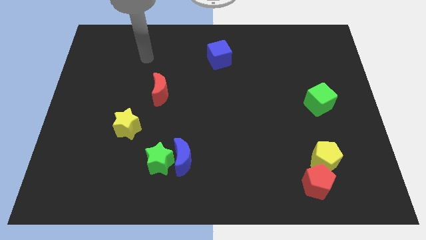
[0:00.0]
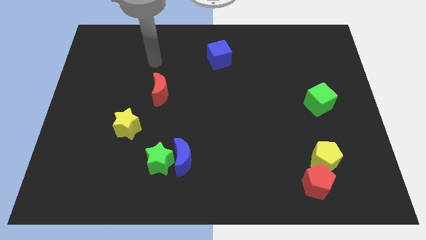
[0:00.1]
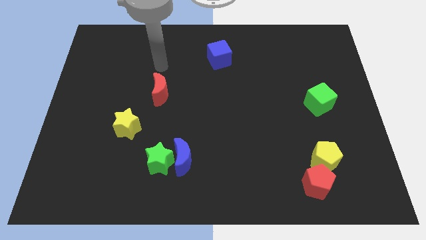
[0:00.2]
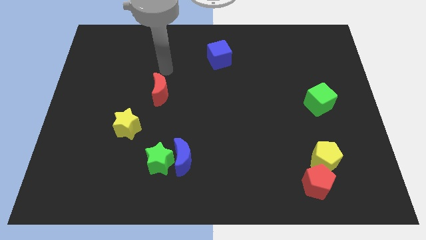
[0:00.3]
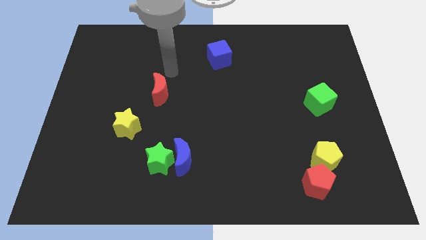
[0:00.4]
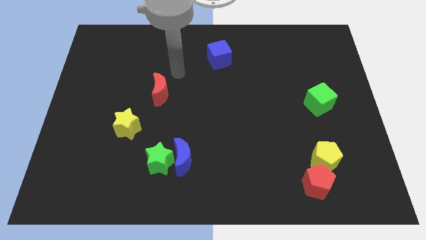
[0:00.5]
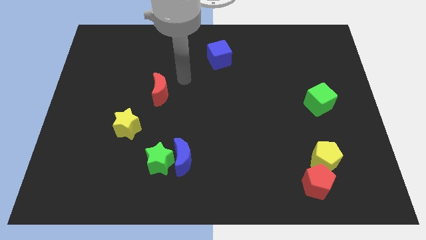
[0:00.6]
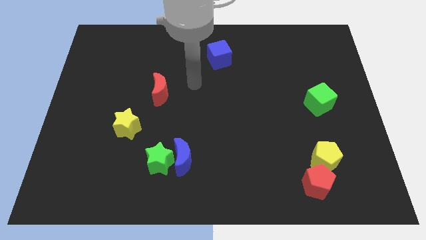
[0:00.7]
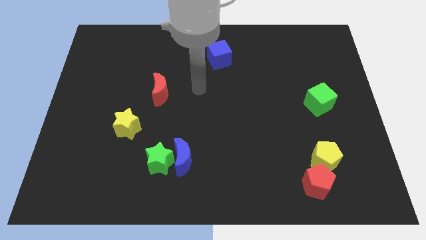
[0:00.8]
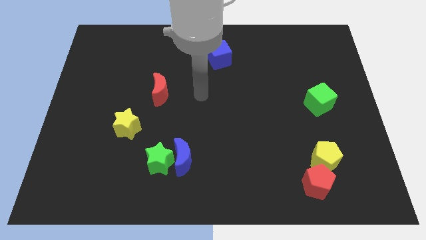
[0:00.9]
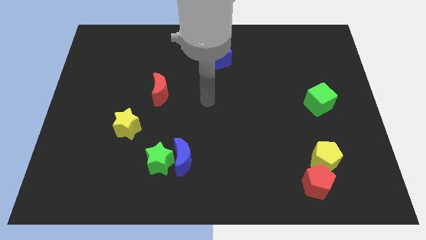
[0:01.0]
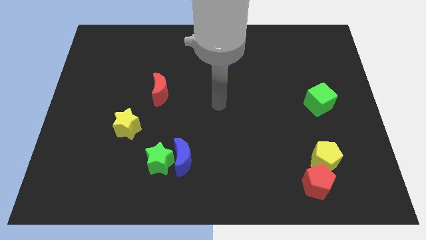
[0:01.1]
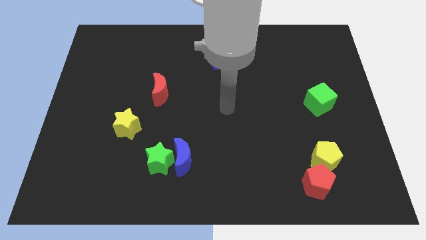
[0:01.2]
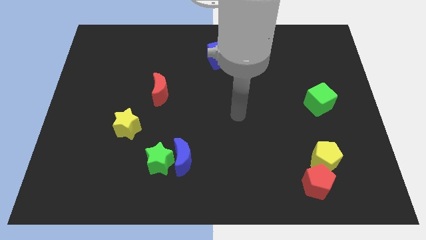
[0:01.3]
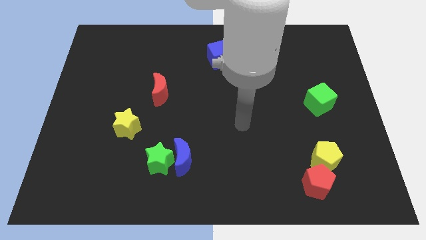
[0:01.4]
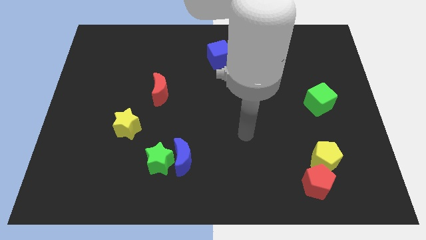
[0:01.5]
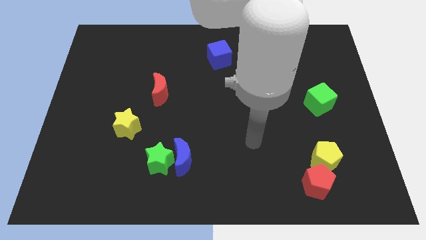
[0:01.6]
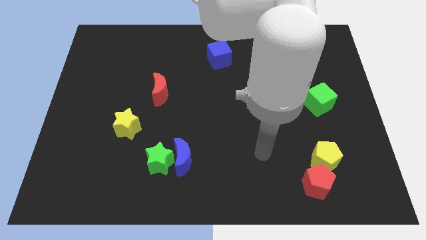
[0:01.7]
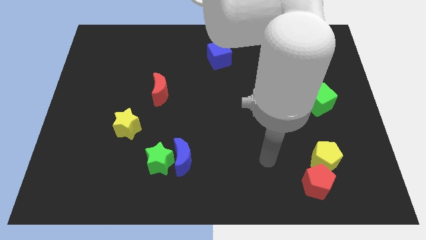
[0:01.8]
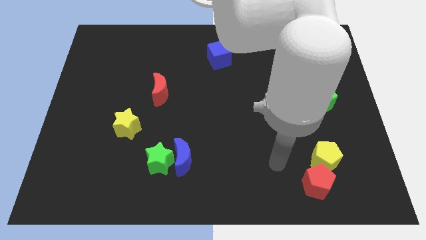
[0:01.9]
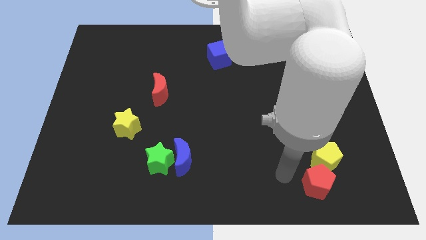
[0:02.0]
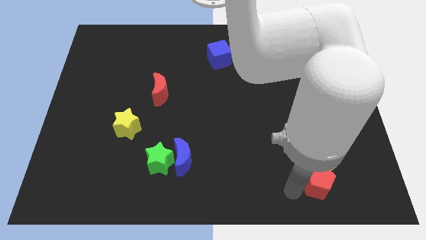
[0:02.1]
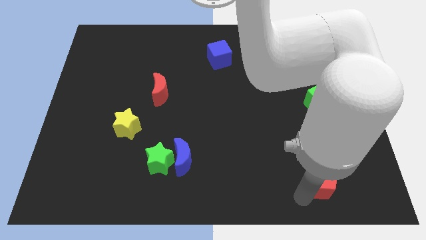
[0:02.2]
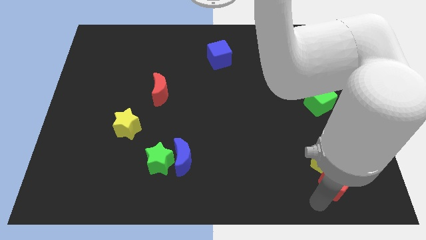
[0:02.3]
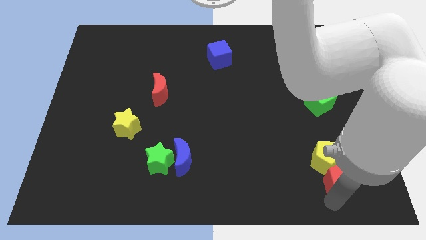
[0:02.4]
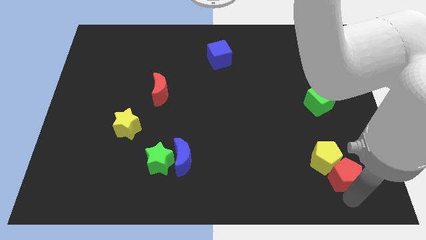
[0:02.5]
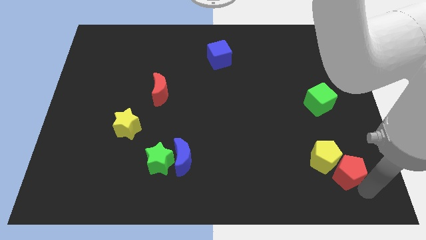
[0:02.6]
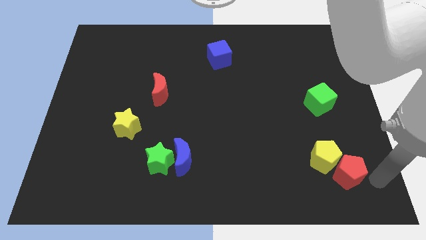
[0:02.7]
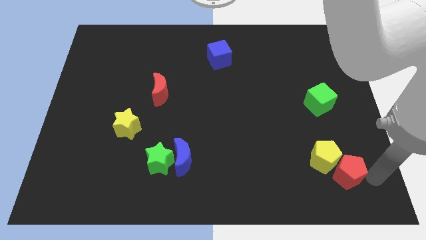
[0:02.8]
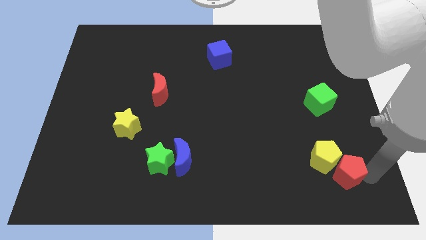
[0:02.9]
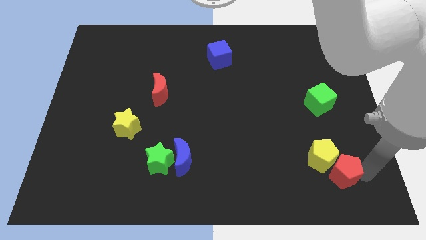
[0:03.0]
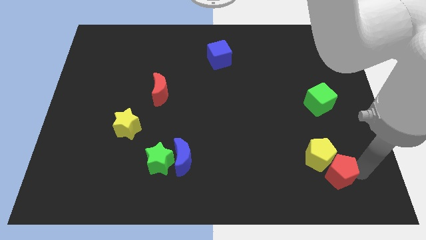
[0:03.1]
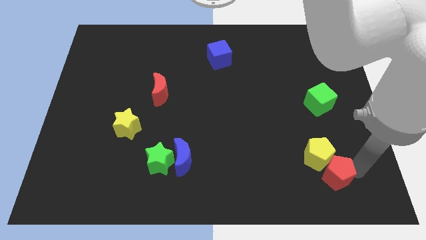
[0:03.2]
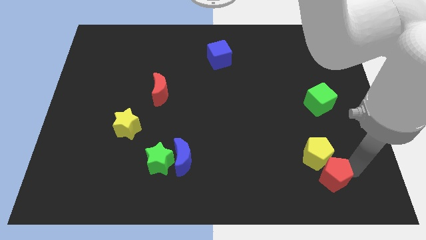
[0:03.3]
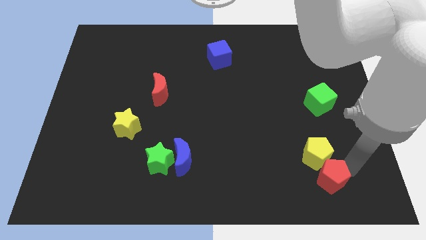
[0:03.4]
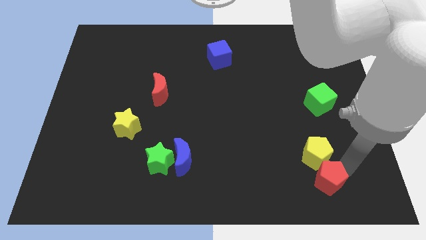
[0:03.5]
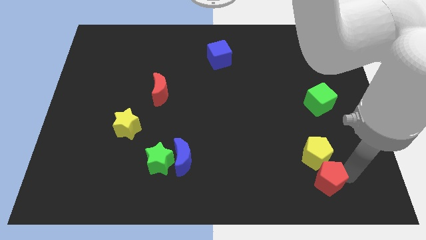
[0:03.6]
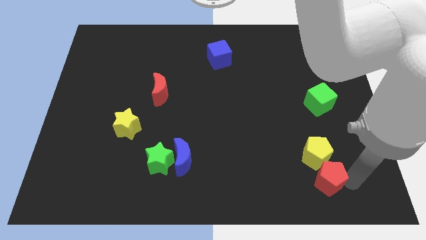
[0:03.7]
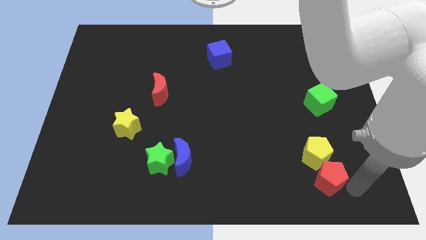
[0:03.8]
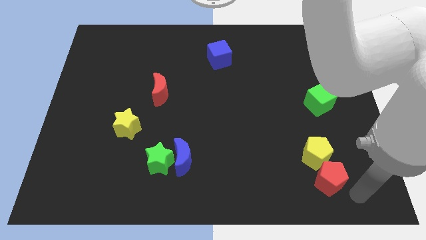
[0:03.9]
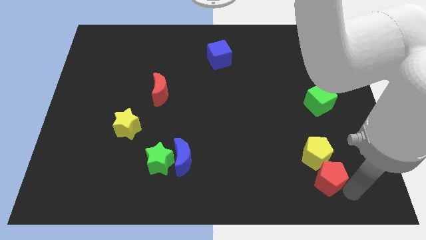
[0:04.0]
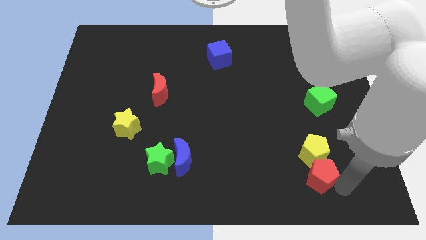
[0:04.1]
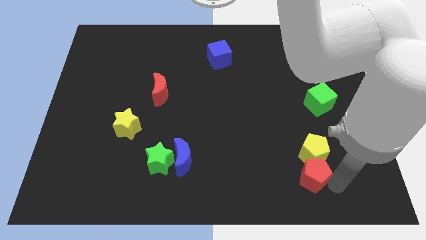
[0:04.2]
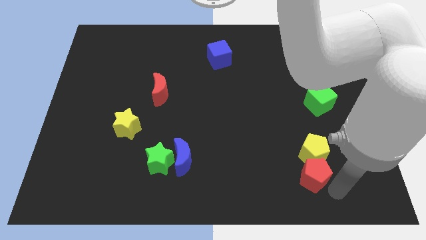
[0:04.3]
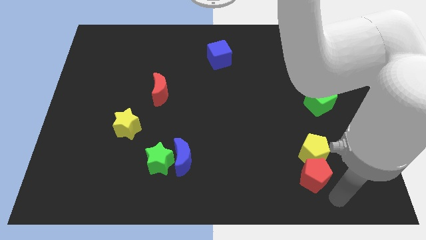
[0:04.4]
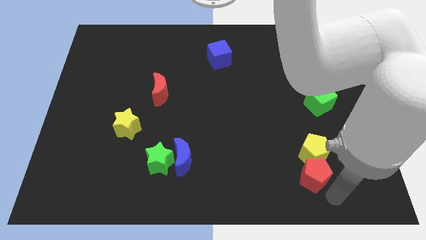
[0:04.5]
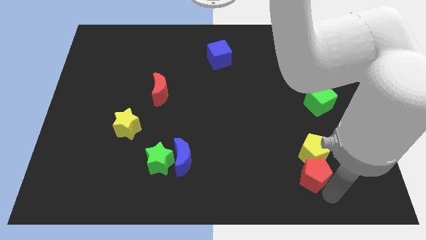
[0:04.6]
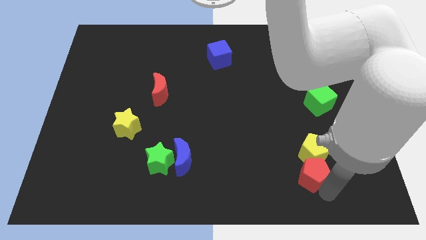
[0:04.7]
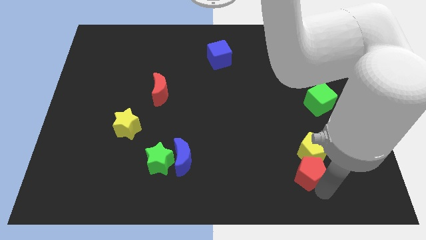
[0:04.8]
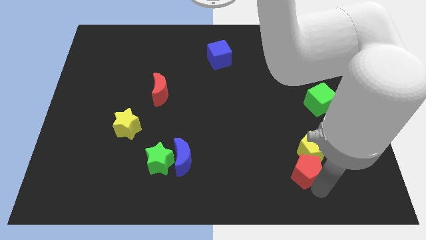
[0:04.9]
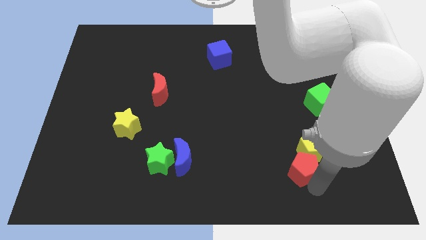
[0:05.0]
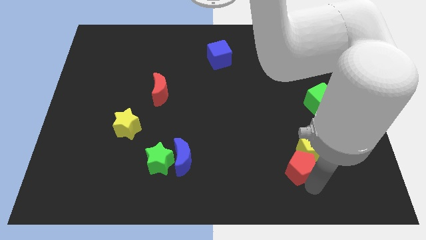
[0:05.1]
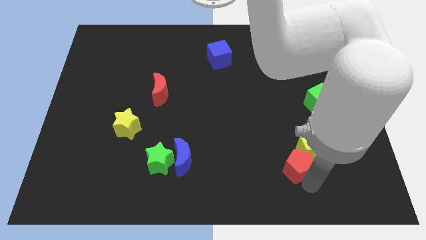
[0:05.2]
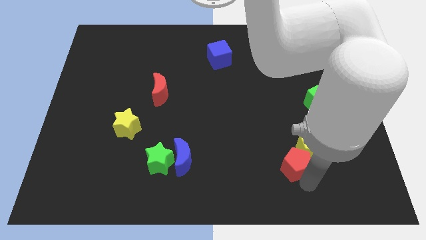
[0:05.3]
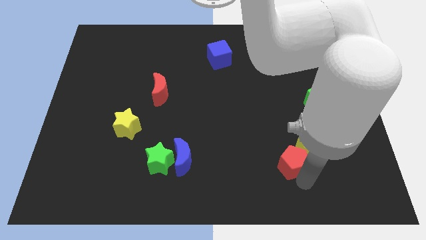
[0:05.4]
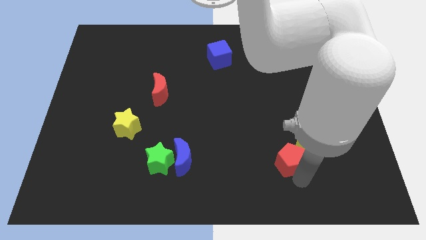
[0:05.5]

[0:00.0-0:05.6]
slightly slide the red pentagon diagonally up and left

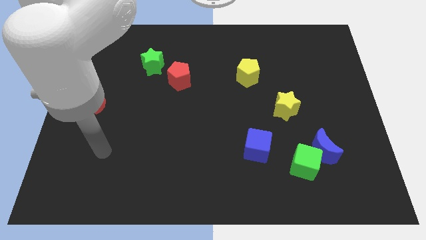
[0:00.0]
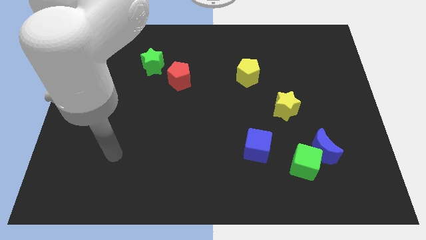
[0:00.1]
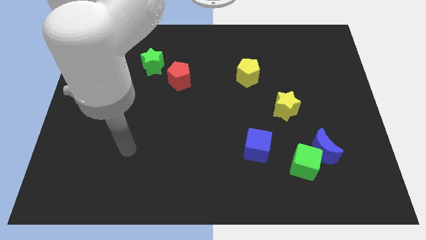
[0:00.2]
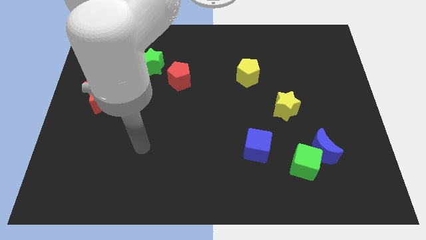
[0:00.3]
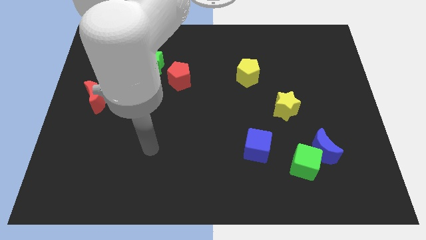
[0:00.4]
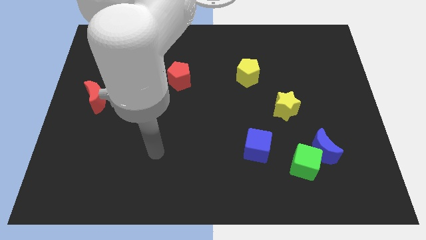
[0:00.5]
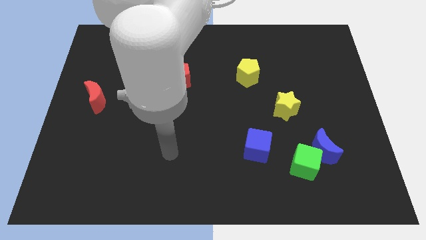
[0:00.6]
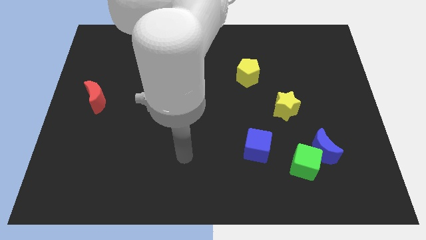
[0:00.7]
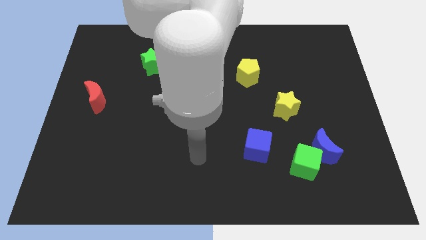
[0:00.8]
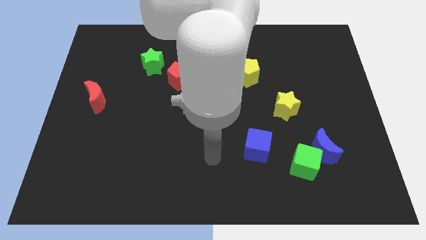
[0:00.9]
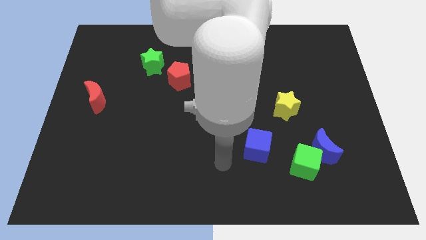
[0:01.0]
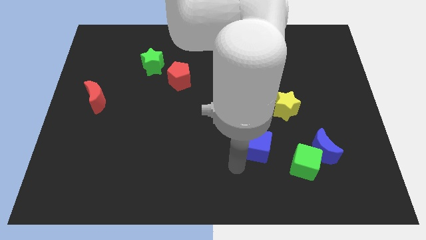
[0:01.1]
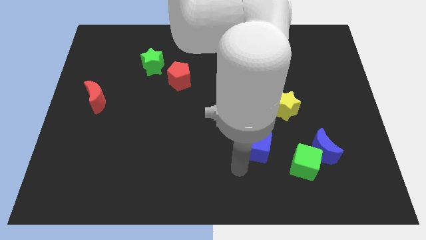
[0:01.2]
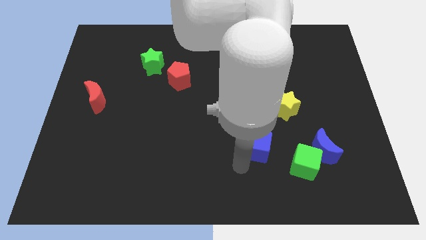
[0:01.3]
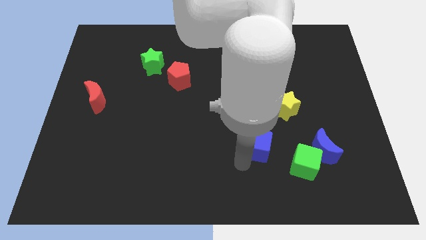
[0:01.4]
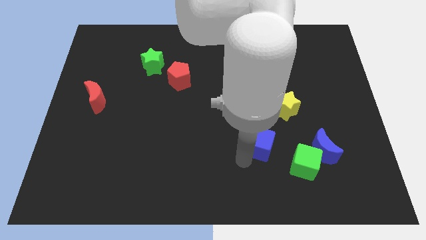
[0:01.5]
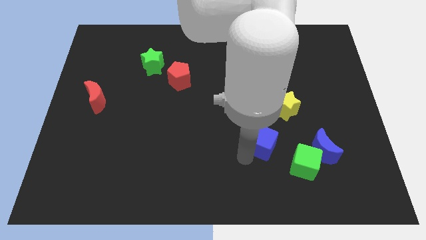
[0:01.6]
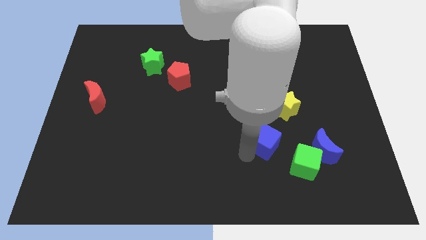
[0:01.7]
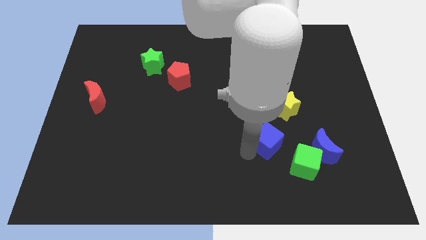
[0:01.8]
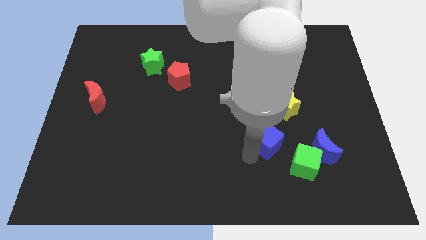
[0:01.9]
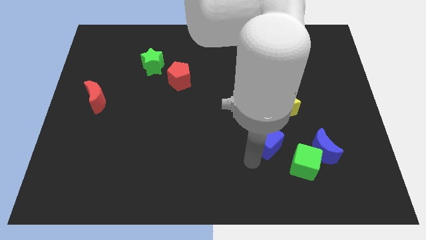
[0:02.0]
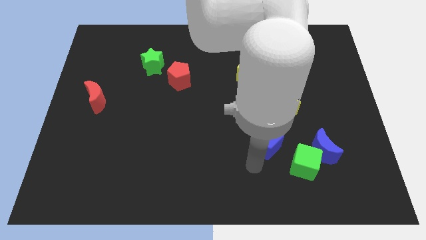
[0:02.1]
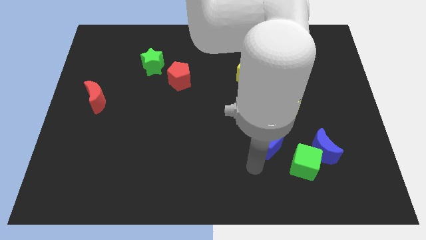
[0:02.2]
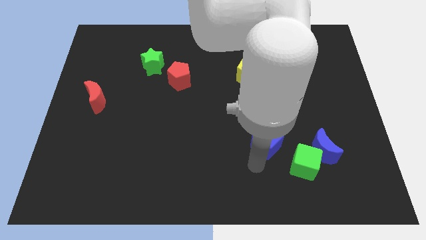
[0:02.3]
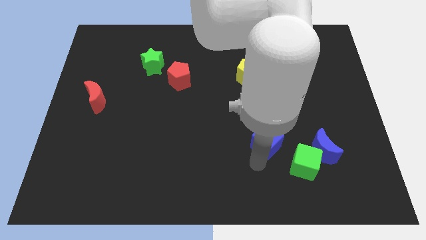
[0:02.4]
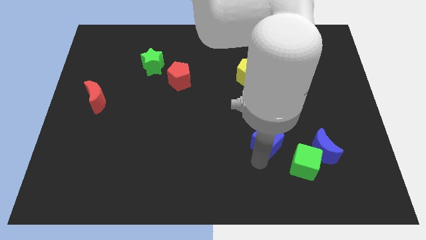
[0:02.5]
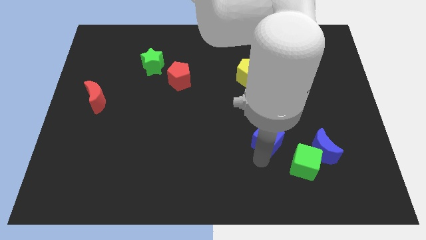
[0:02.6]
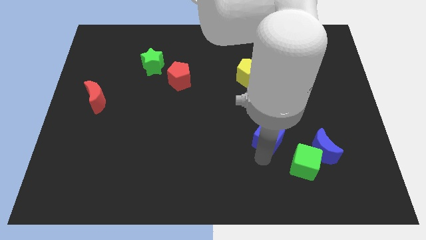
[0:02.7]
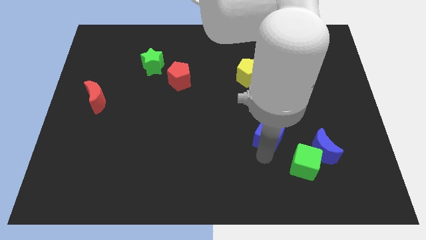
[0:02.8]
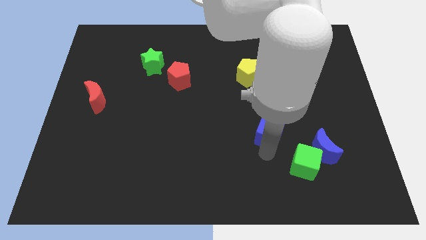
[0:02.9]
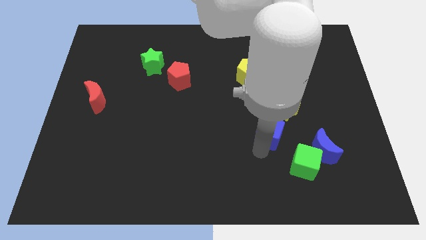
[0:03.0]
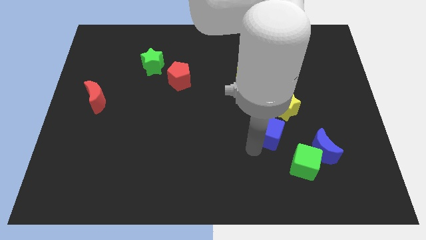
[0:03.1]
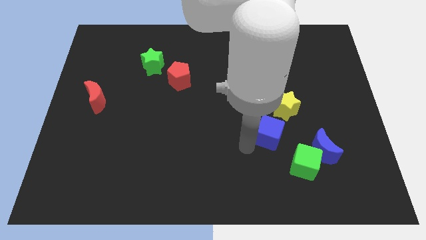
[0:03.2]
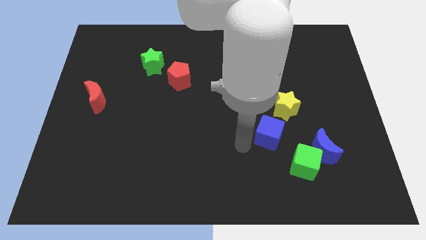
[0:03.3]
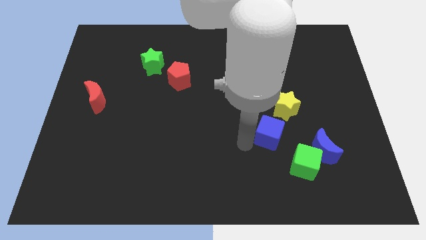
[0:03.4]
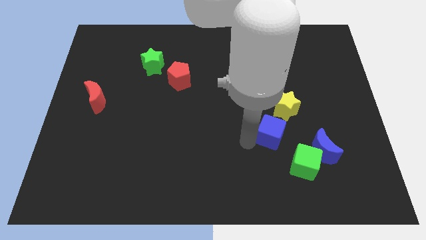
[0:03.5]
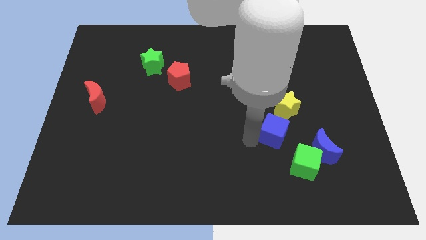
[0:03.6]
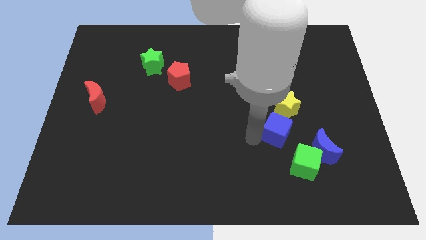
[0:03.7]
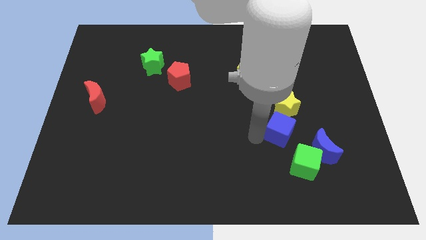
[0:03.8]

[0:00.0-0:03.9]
slightly move the blue cube up and right diagonally
